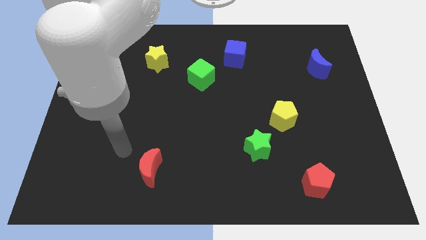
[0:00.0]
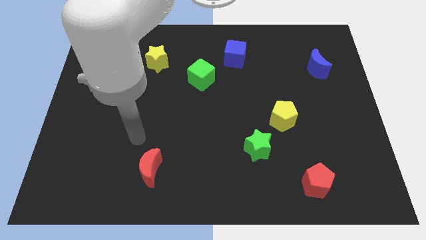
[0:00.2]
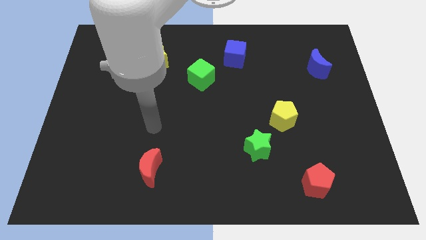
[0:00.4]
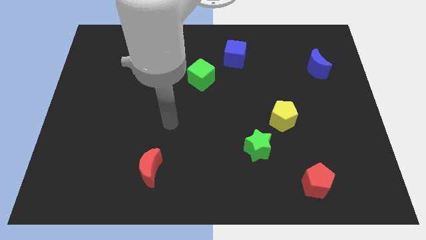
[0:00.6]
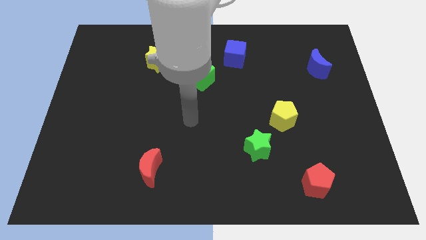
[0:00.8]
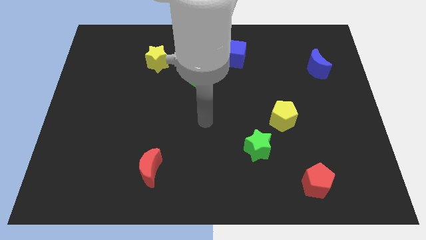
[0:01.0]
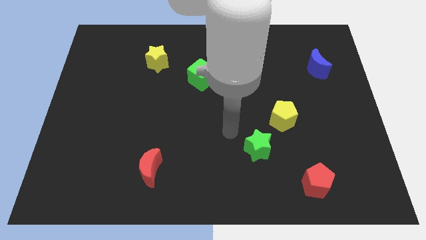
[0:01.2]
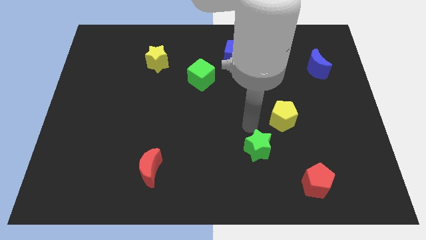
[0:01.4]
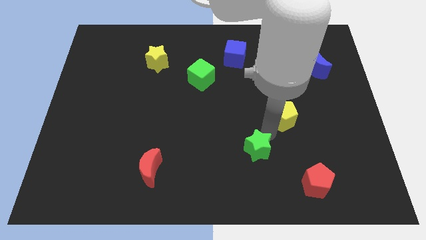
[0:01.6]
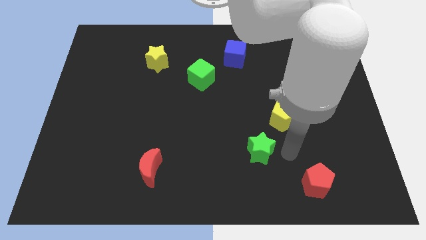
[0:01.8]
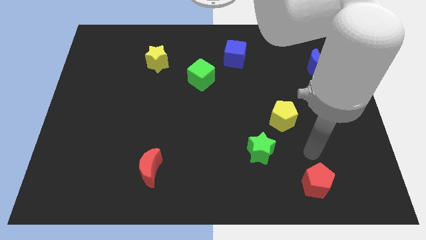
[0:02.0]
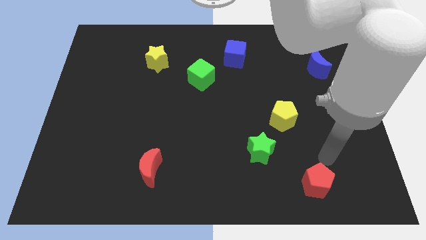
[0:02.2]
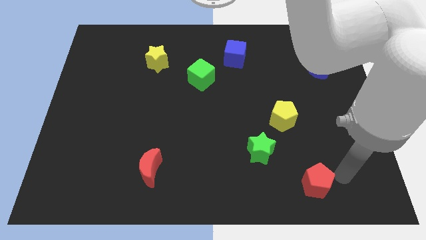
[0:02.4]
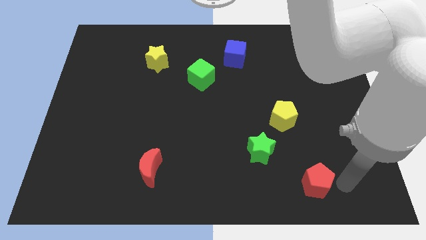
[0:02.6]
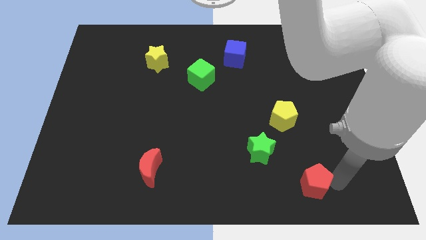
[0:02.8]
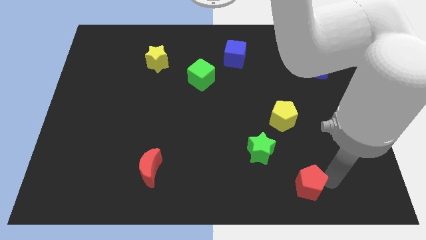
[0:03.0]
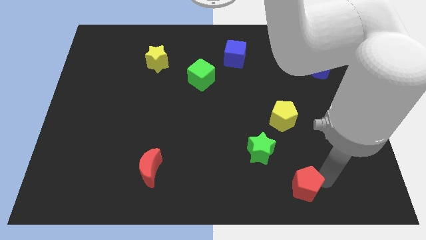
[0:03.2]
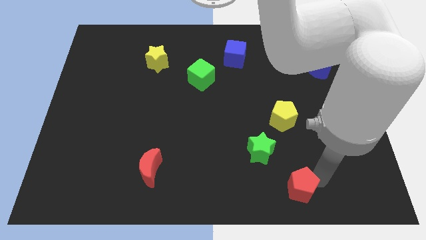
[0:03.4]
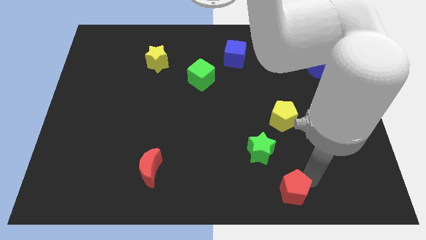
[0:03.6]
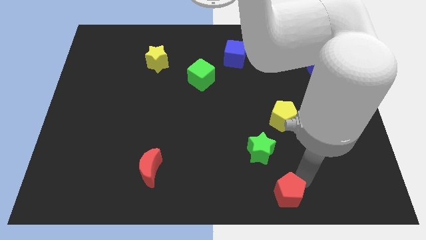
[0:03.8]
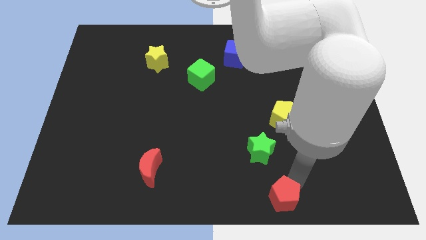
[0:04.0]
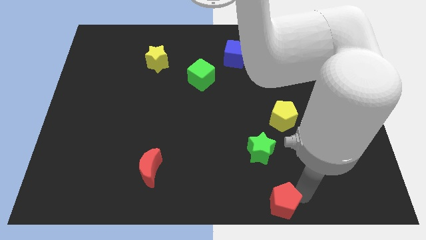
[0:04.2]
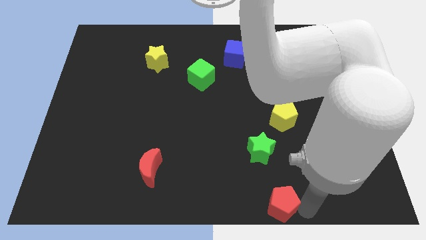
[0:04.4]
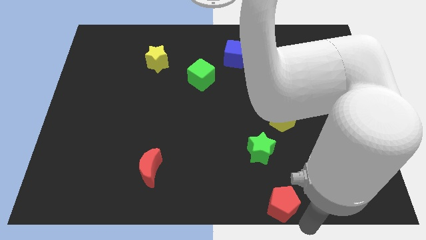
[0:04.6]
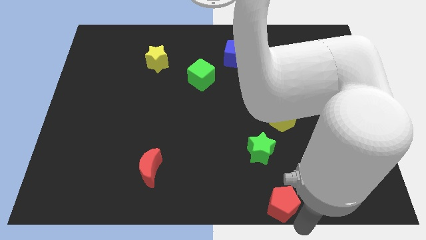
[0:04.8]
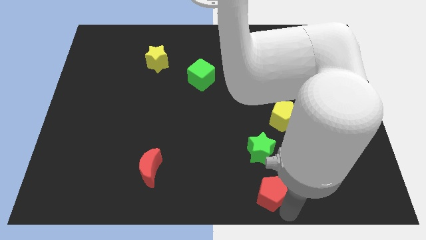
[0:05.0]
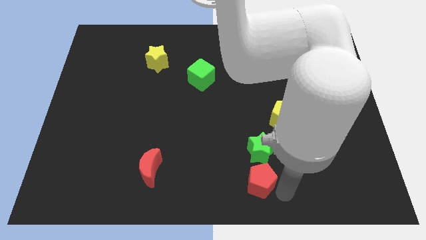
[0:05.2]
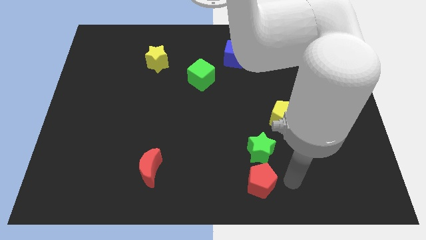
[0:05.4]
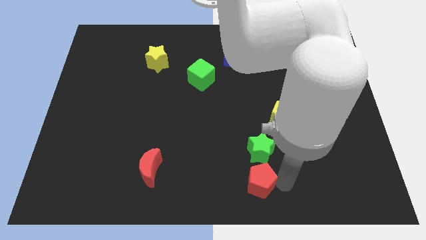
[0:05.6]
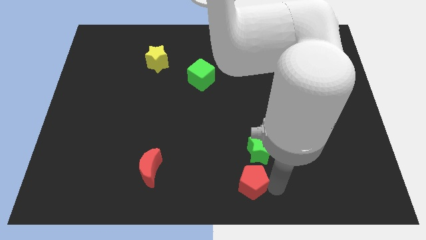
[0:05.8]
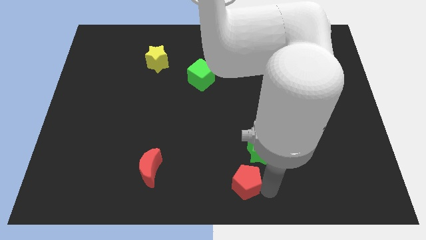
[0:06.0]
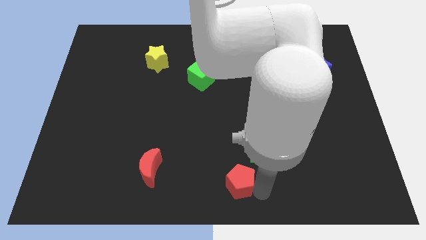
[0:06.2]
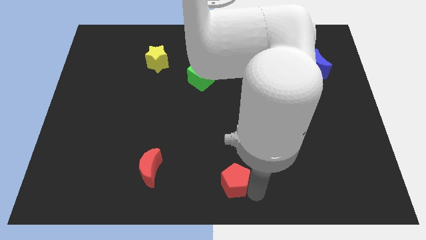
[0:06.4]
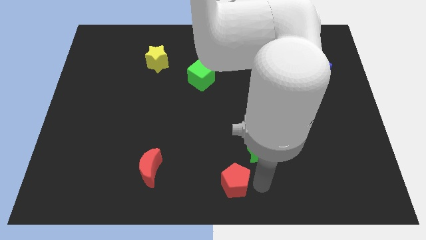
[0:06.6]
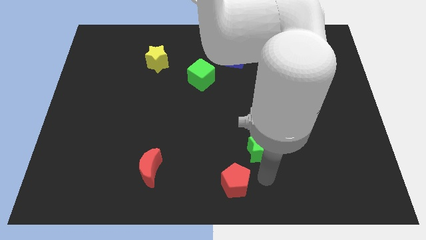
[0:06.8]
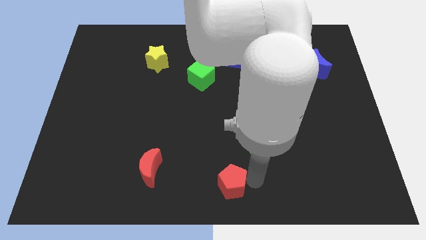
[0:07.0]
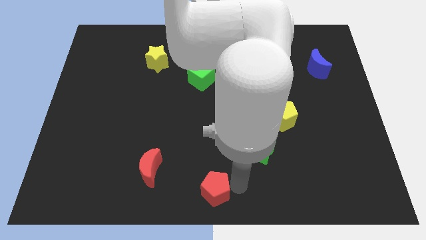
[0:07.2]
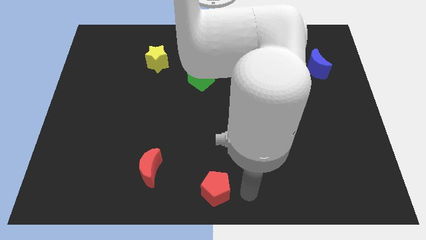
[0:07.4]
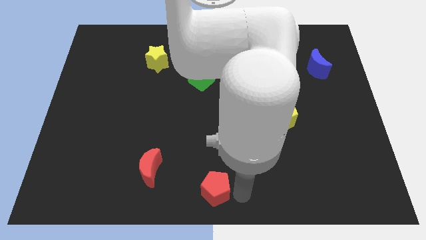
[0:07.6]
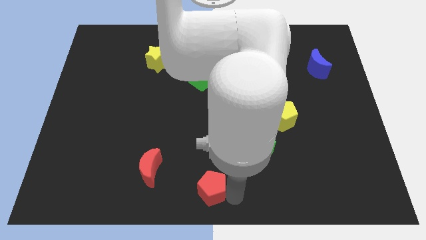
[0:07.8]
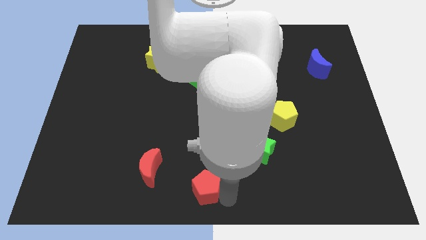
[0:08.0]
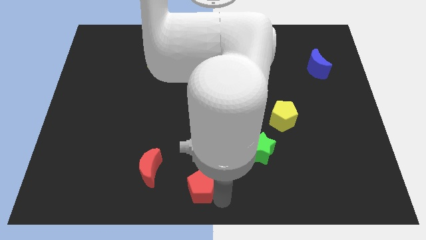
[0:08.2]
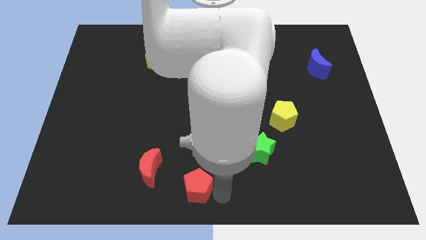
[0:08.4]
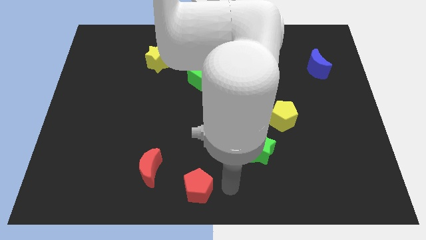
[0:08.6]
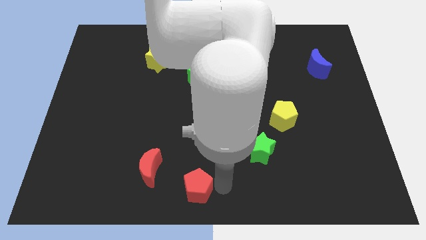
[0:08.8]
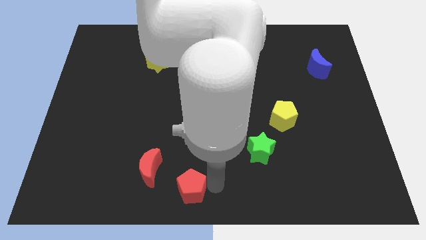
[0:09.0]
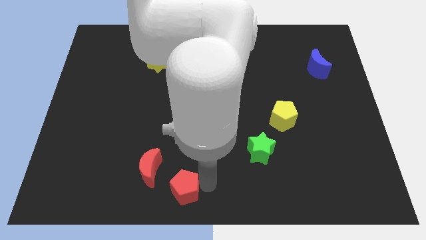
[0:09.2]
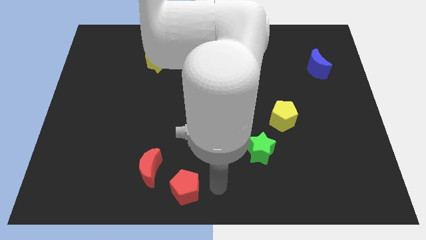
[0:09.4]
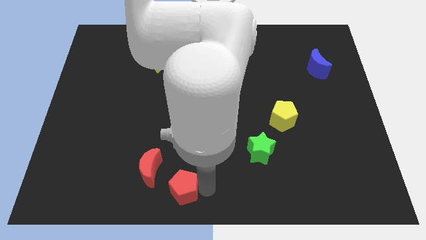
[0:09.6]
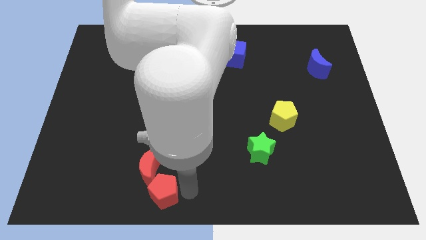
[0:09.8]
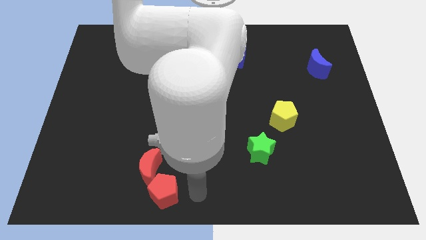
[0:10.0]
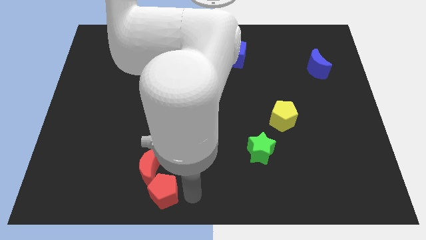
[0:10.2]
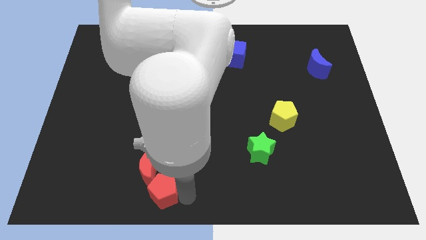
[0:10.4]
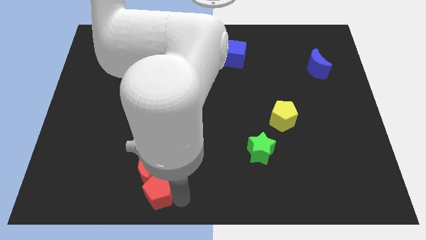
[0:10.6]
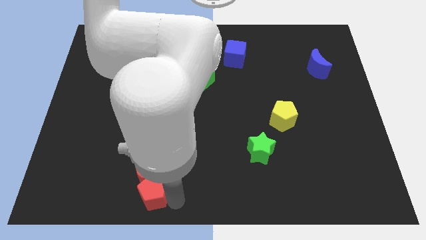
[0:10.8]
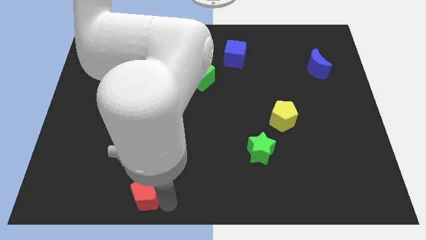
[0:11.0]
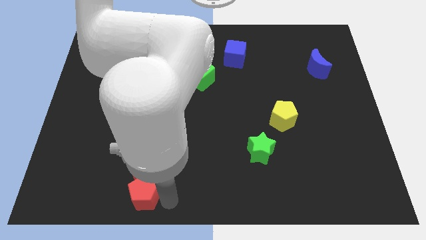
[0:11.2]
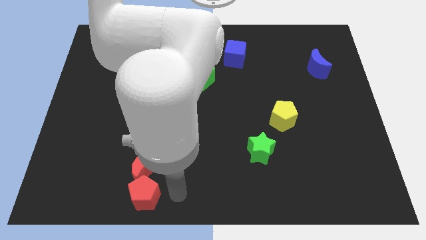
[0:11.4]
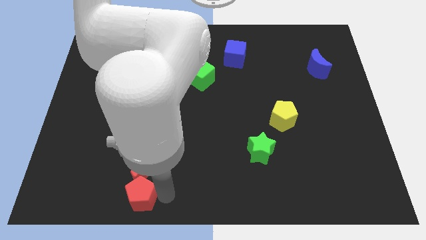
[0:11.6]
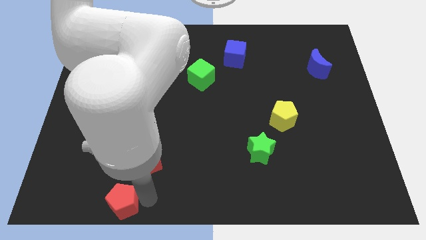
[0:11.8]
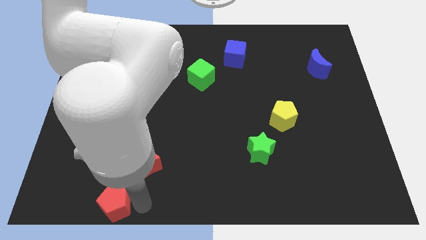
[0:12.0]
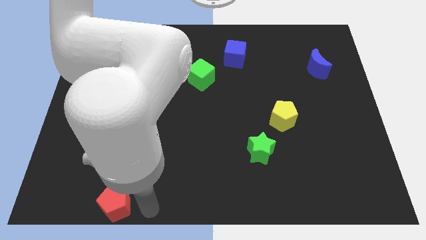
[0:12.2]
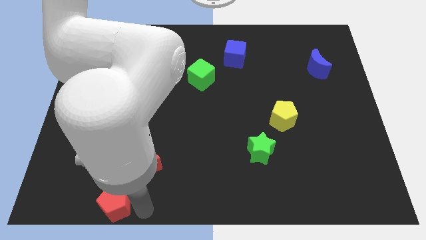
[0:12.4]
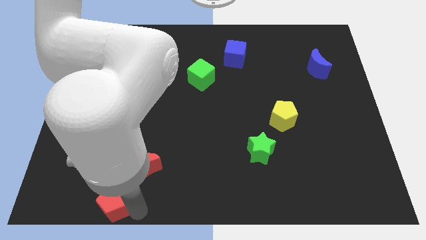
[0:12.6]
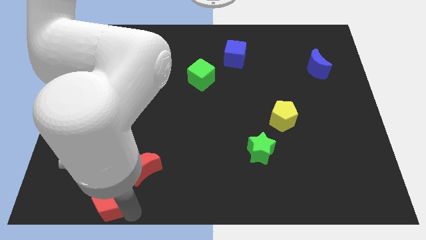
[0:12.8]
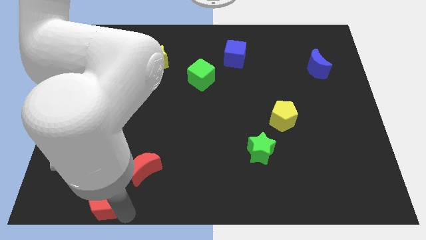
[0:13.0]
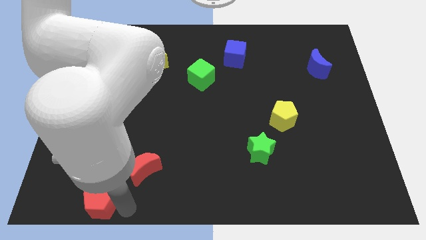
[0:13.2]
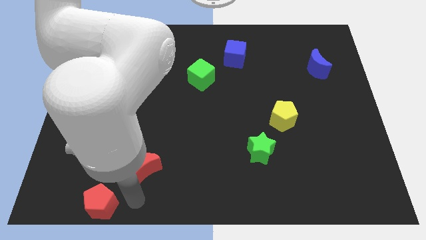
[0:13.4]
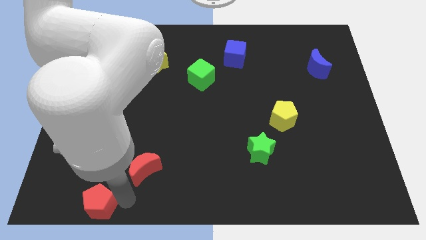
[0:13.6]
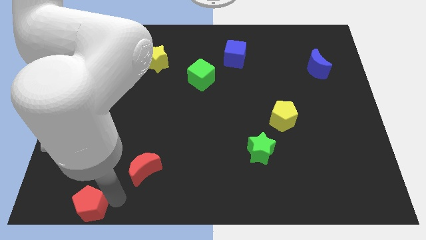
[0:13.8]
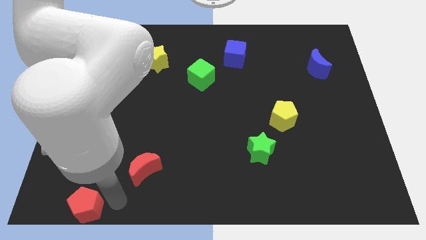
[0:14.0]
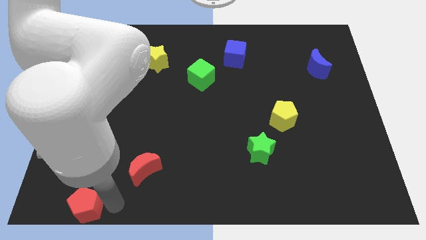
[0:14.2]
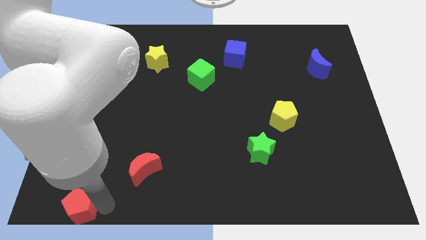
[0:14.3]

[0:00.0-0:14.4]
push the red pentagon to the bottom left of the board
